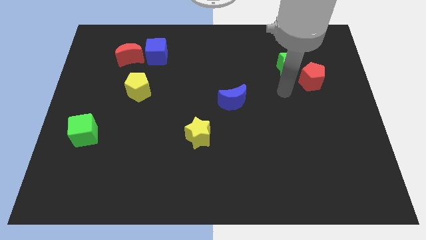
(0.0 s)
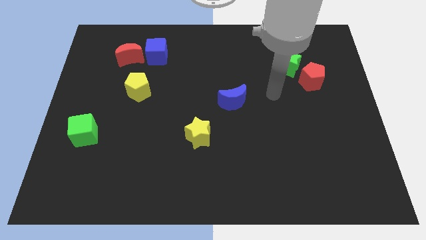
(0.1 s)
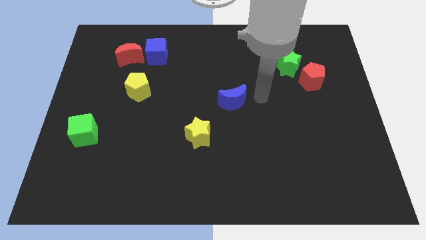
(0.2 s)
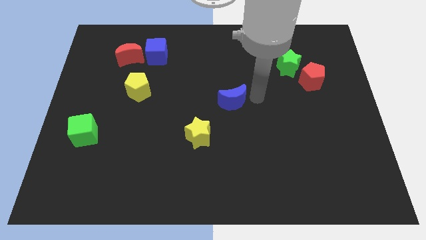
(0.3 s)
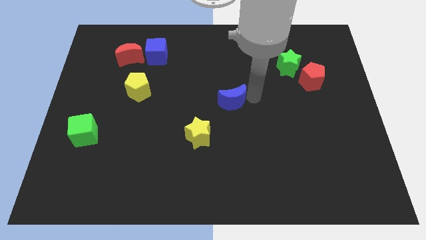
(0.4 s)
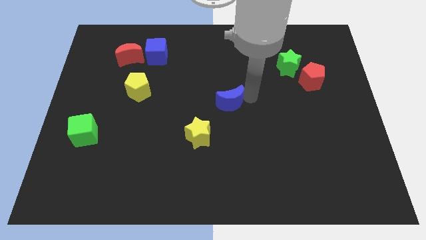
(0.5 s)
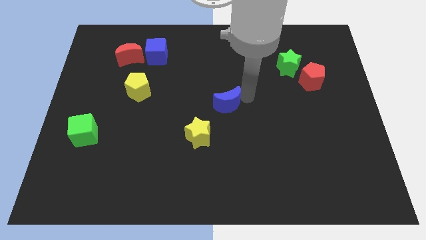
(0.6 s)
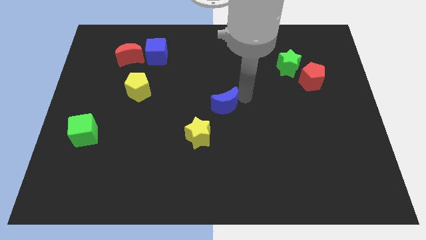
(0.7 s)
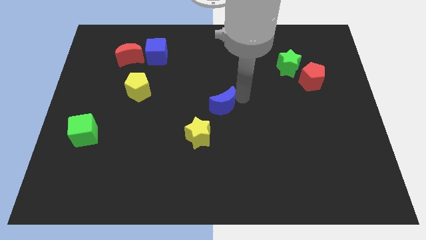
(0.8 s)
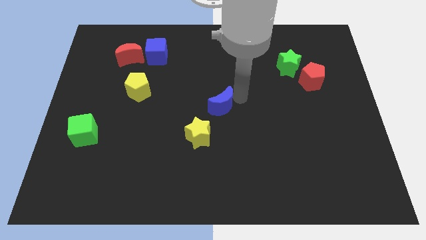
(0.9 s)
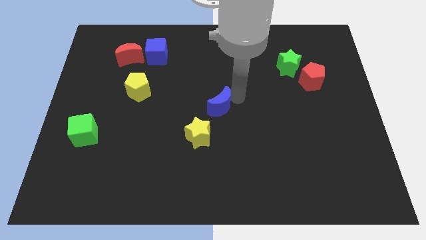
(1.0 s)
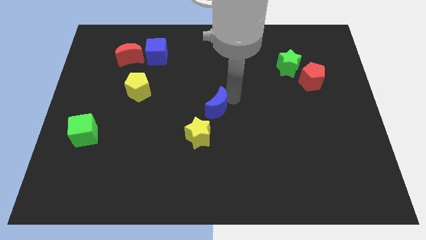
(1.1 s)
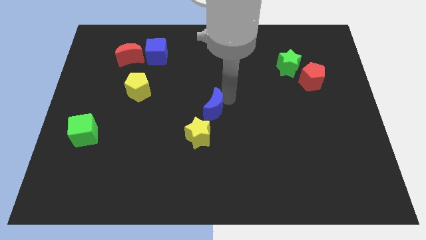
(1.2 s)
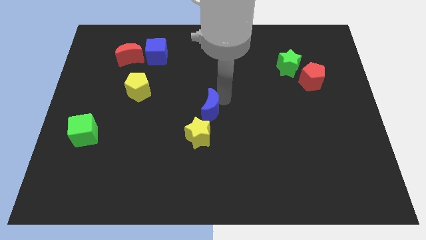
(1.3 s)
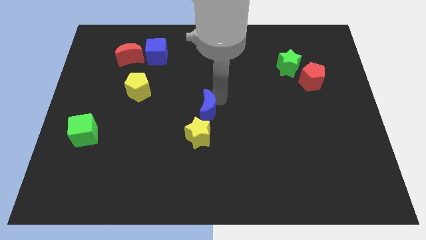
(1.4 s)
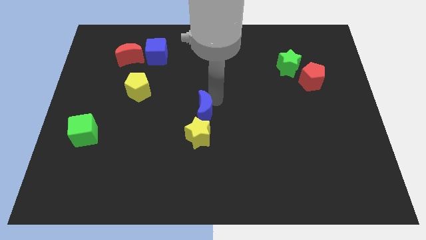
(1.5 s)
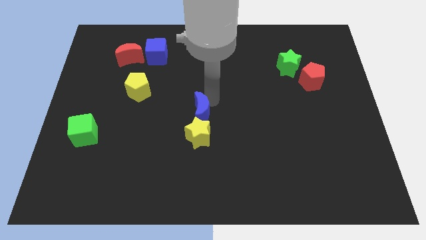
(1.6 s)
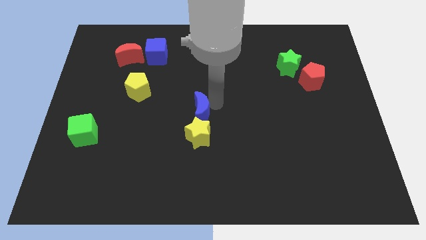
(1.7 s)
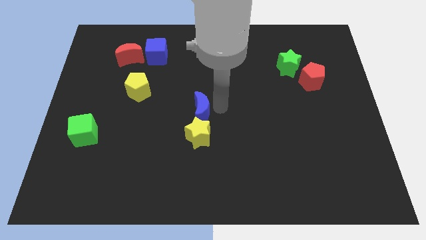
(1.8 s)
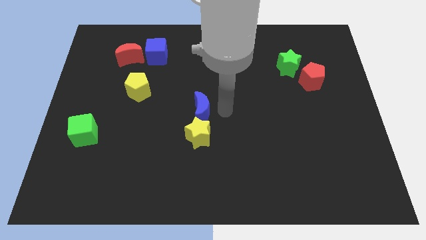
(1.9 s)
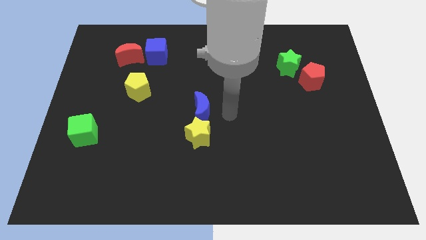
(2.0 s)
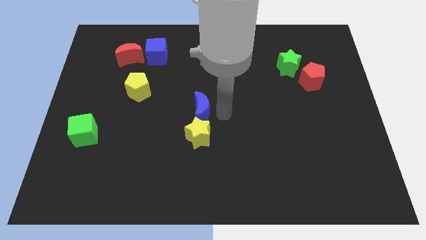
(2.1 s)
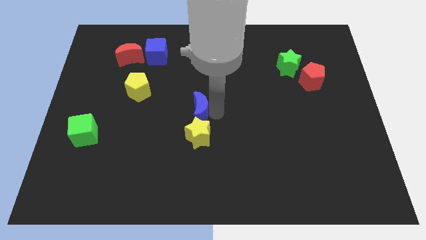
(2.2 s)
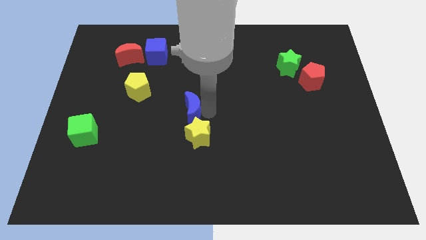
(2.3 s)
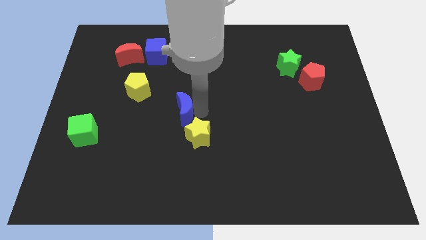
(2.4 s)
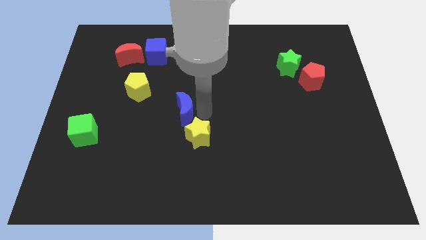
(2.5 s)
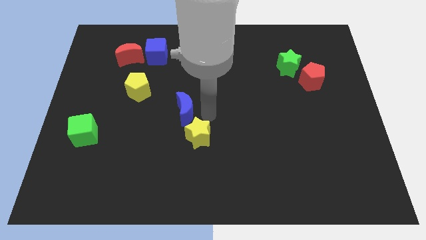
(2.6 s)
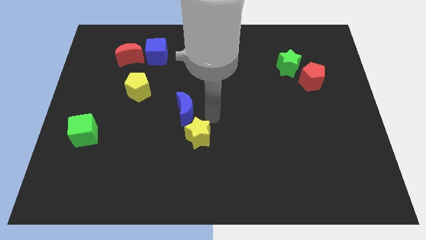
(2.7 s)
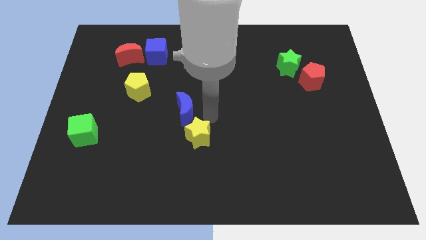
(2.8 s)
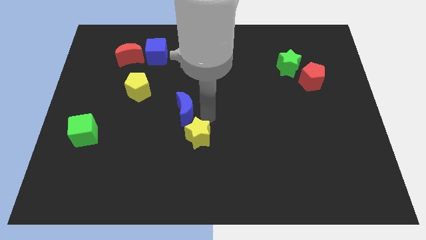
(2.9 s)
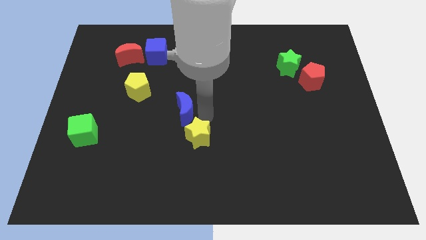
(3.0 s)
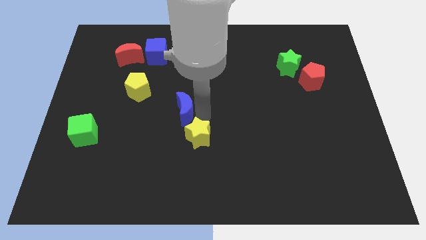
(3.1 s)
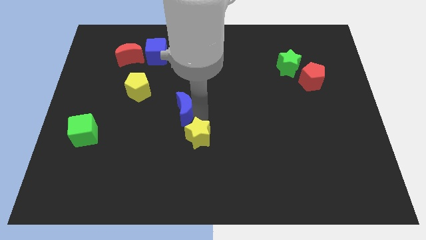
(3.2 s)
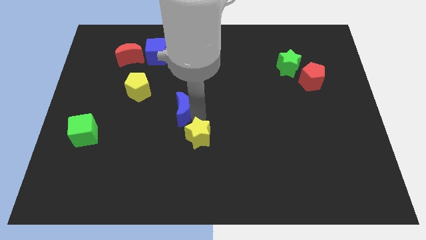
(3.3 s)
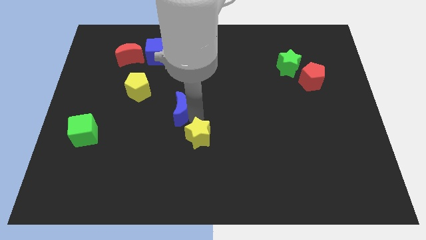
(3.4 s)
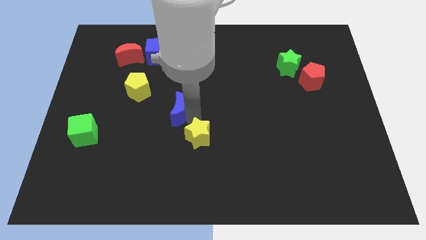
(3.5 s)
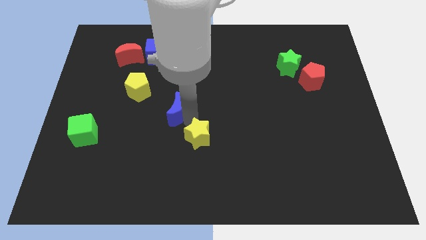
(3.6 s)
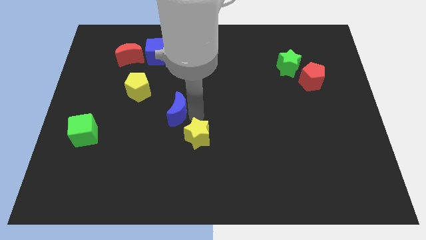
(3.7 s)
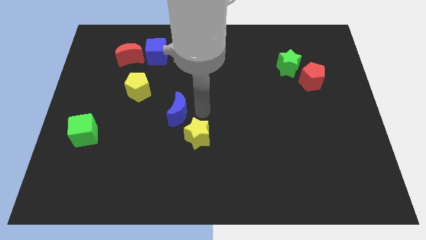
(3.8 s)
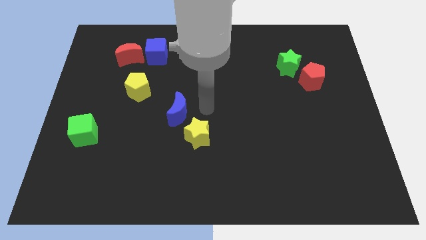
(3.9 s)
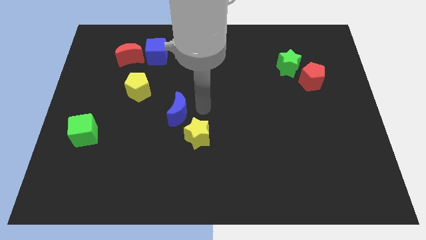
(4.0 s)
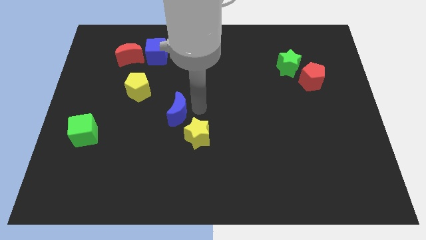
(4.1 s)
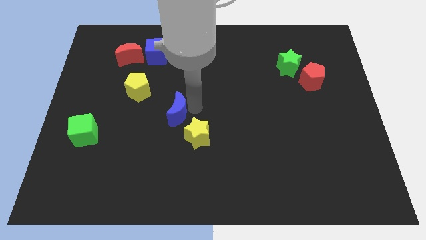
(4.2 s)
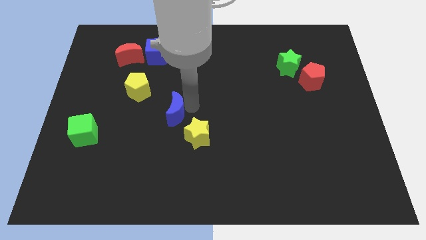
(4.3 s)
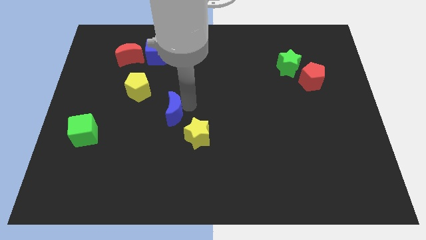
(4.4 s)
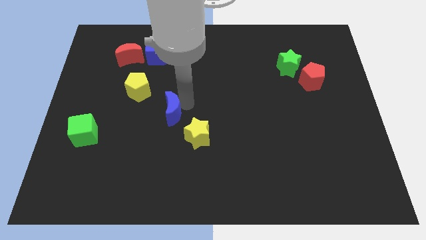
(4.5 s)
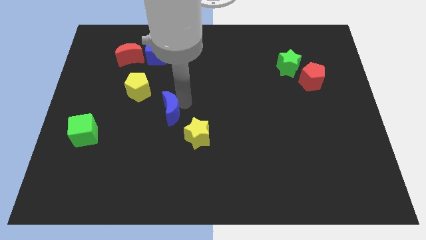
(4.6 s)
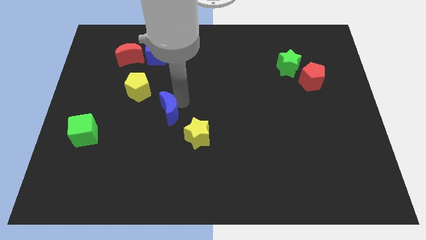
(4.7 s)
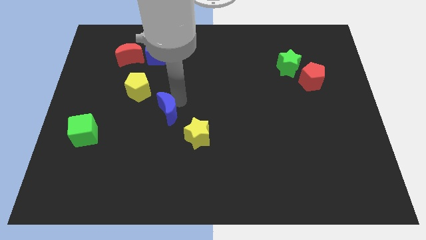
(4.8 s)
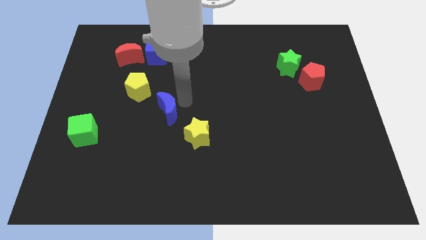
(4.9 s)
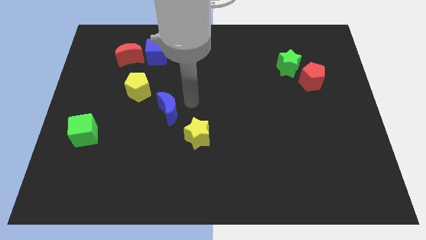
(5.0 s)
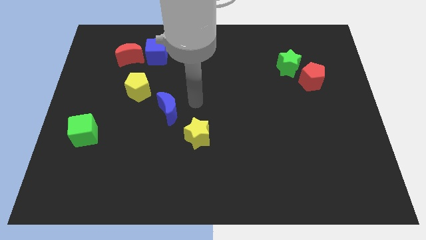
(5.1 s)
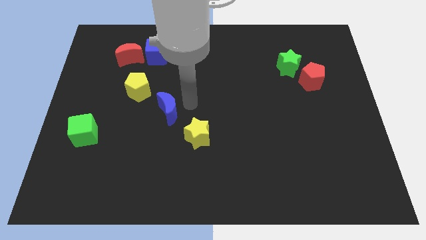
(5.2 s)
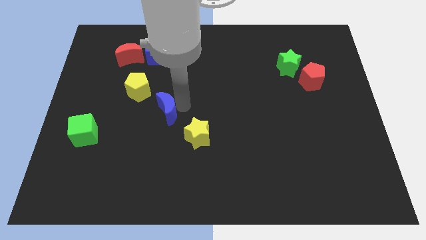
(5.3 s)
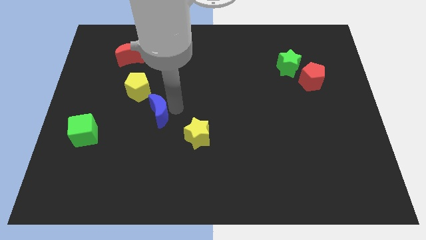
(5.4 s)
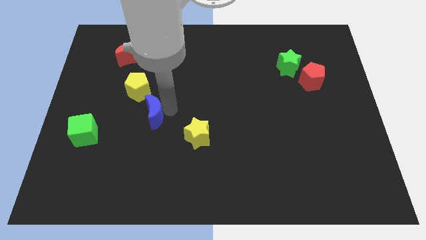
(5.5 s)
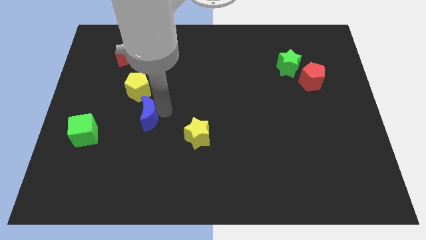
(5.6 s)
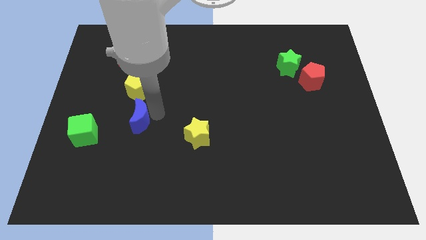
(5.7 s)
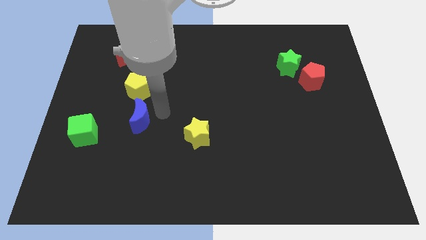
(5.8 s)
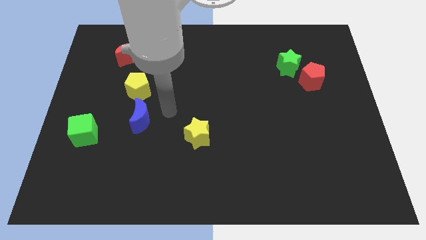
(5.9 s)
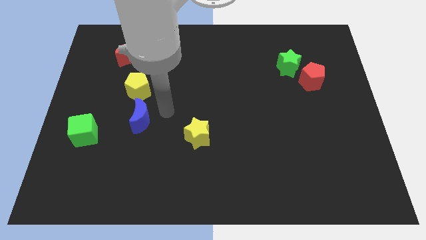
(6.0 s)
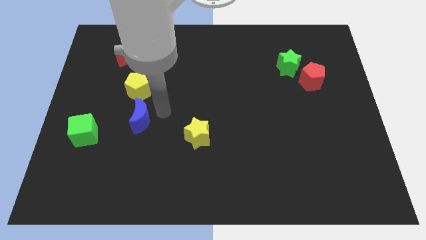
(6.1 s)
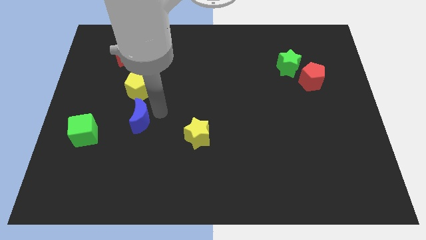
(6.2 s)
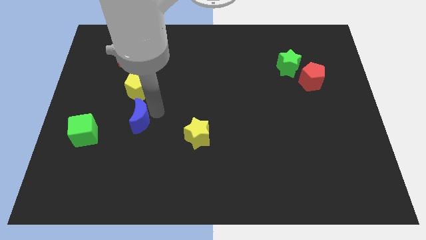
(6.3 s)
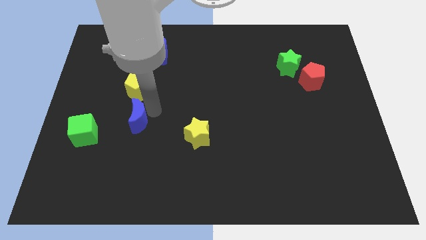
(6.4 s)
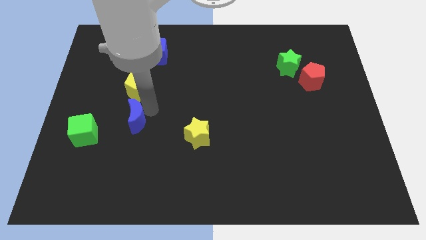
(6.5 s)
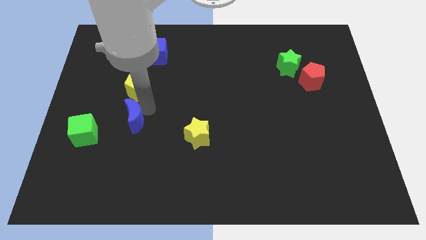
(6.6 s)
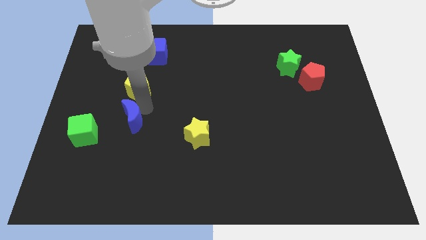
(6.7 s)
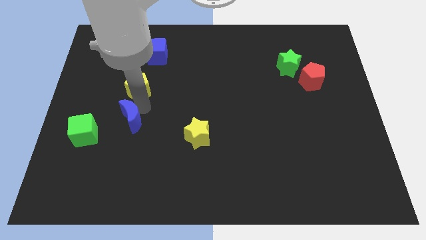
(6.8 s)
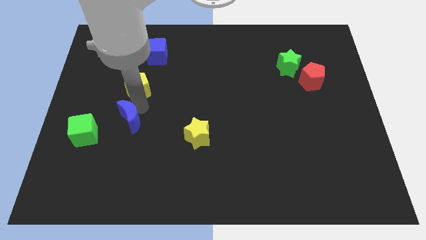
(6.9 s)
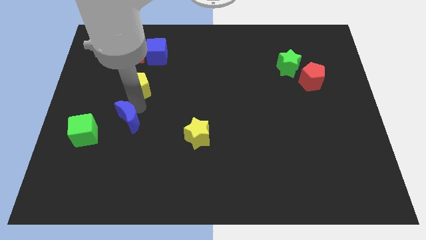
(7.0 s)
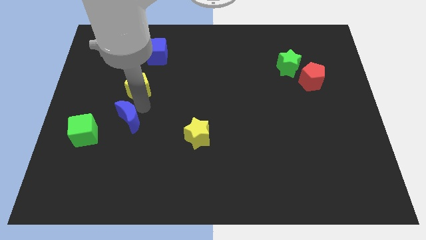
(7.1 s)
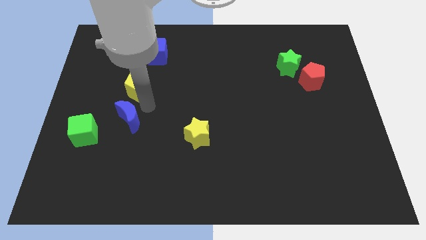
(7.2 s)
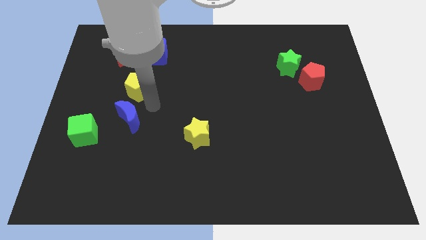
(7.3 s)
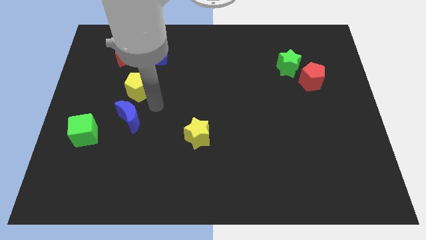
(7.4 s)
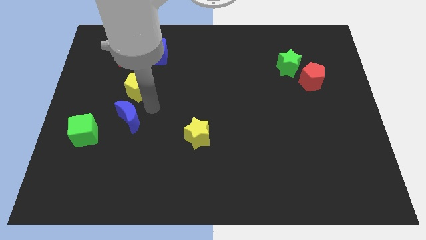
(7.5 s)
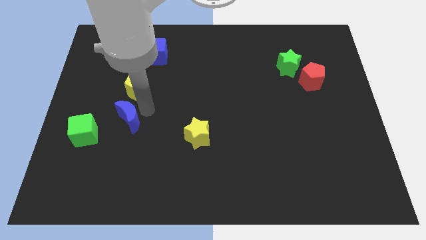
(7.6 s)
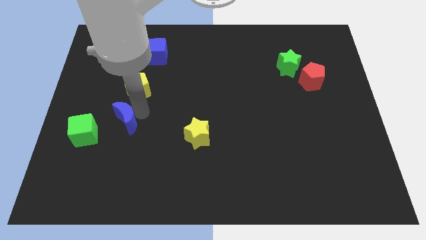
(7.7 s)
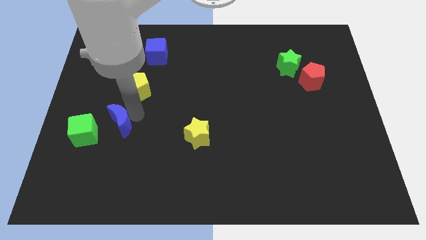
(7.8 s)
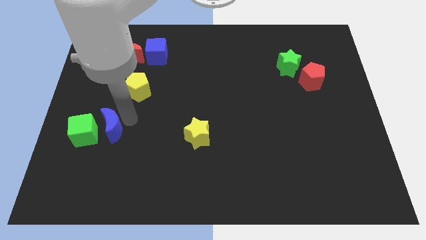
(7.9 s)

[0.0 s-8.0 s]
push the blue moon next to the green cube
